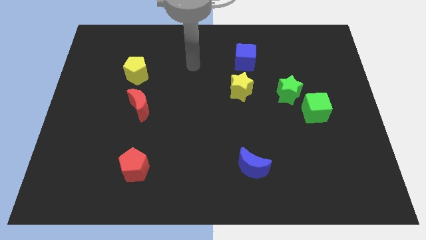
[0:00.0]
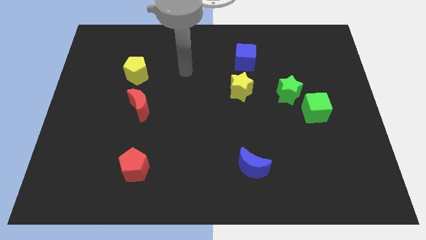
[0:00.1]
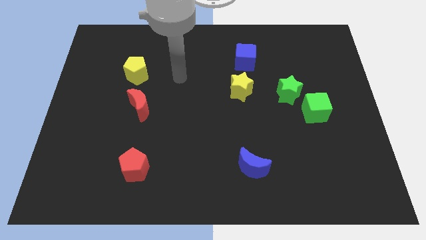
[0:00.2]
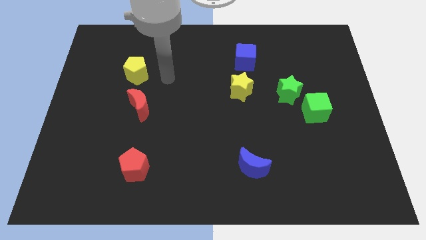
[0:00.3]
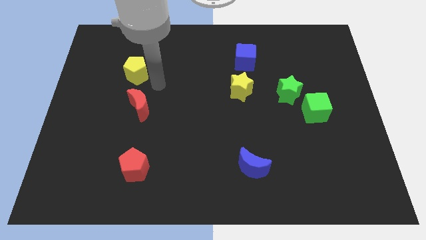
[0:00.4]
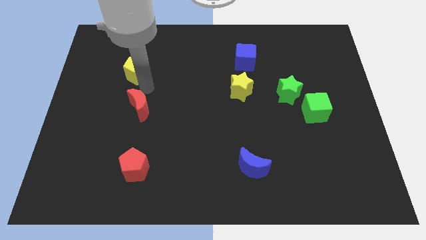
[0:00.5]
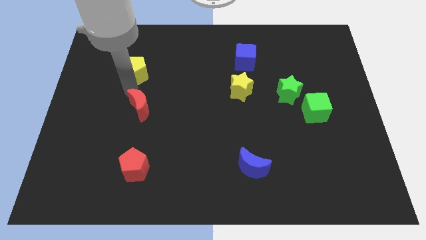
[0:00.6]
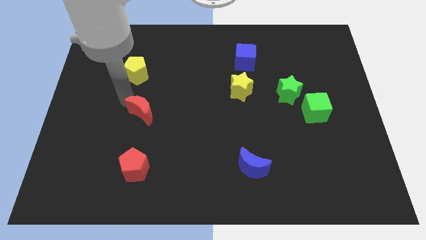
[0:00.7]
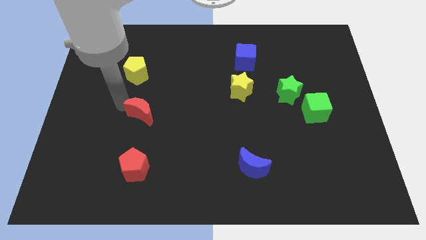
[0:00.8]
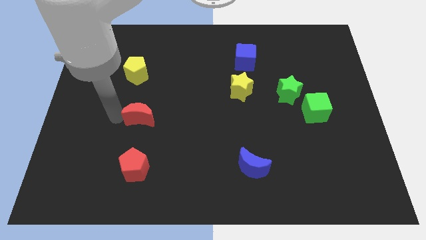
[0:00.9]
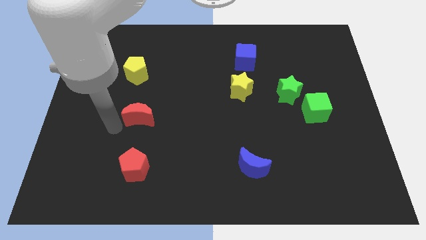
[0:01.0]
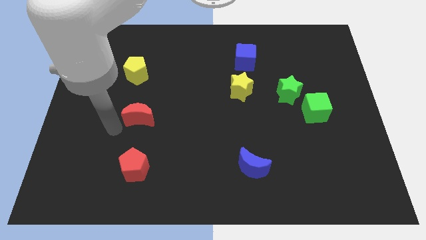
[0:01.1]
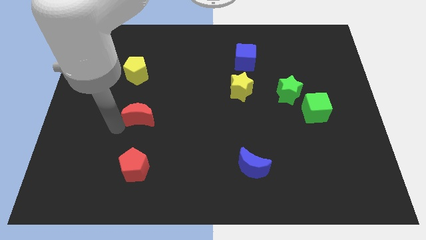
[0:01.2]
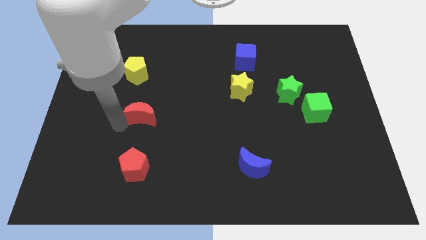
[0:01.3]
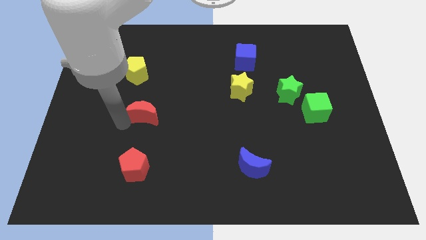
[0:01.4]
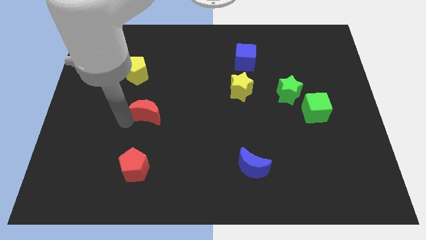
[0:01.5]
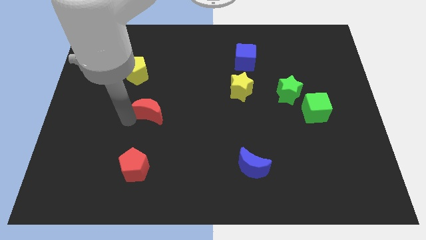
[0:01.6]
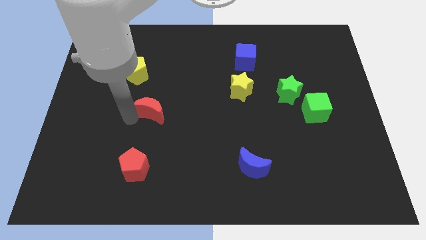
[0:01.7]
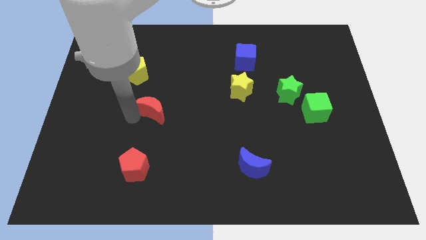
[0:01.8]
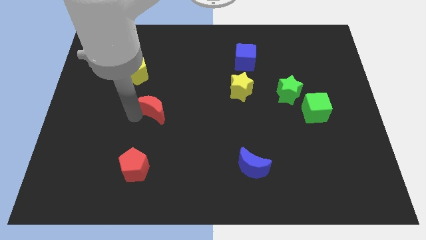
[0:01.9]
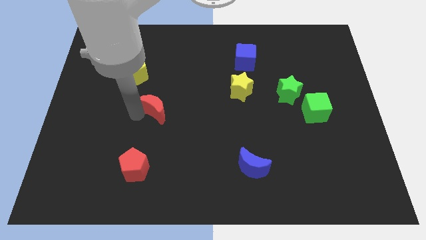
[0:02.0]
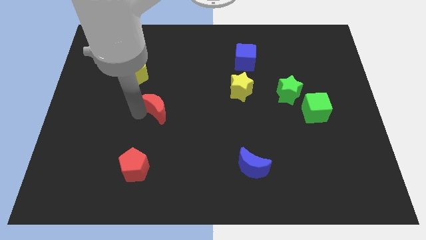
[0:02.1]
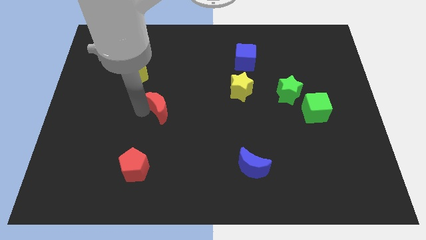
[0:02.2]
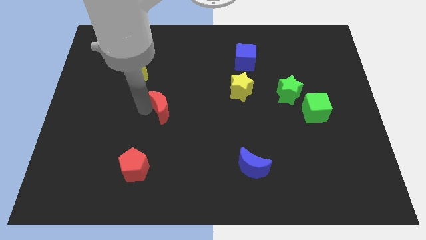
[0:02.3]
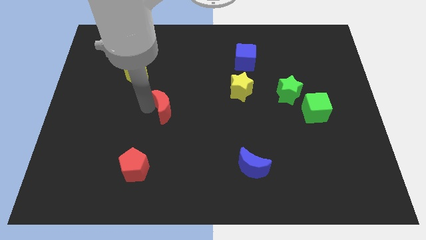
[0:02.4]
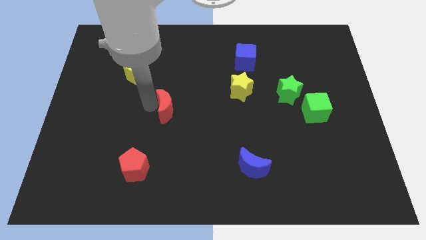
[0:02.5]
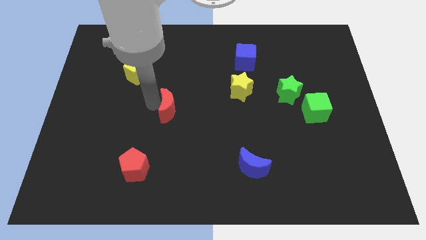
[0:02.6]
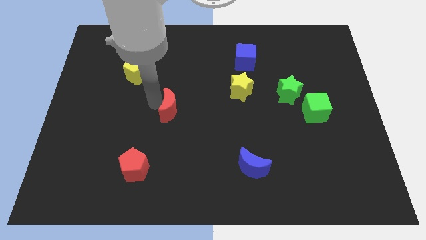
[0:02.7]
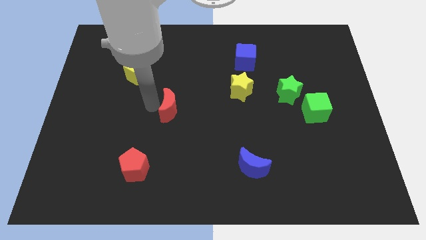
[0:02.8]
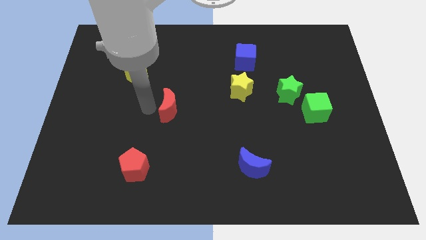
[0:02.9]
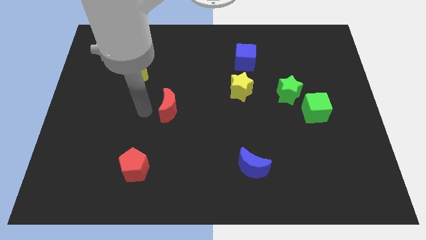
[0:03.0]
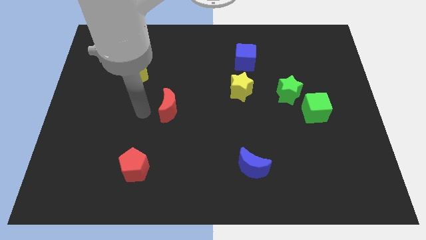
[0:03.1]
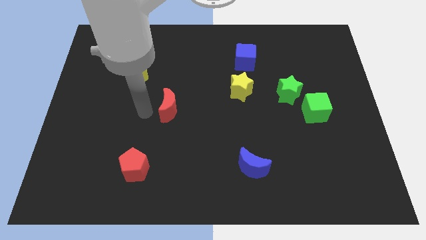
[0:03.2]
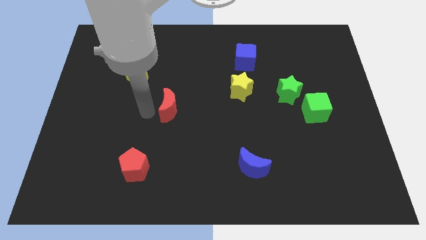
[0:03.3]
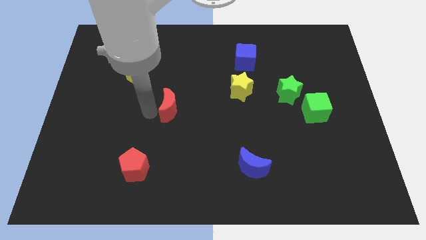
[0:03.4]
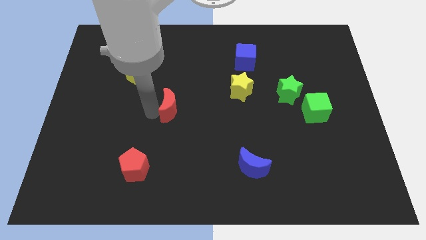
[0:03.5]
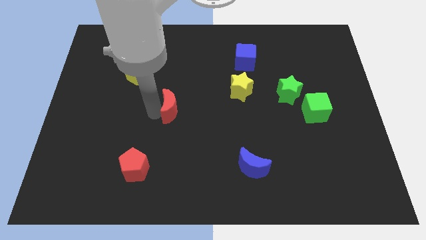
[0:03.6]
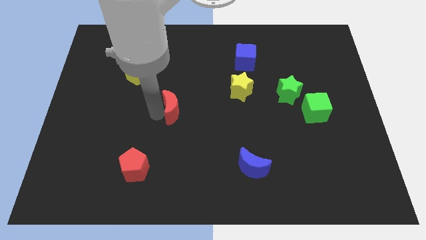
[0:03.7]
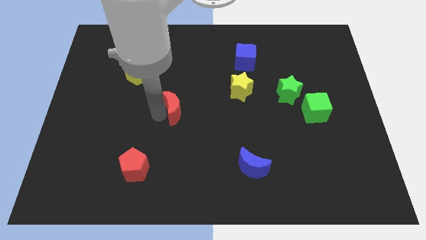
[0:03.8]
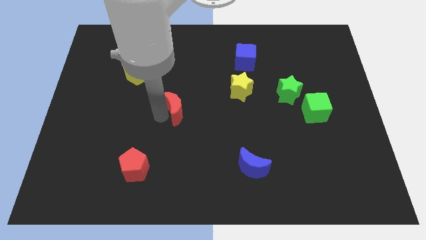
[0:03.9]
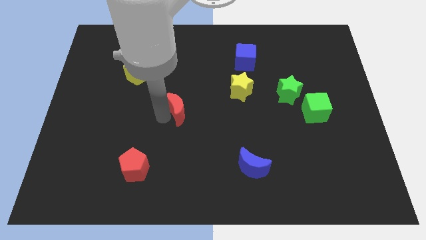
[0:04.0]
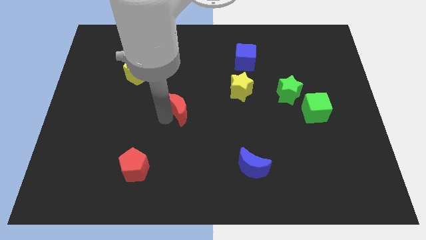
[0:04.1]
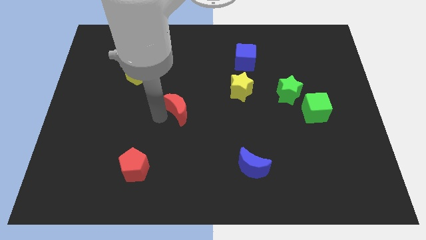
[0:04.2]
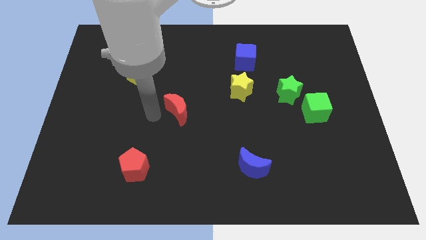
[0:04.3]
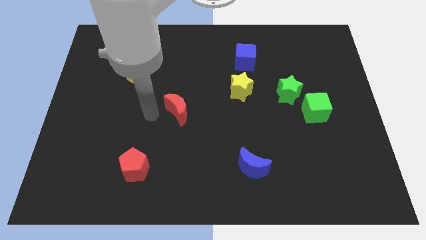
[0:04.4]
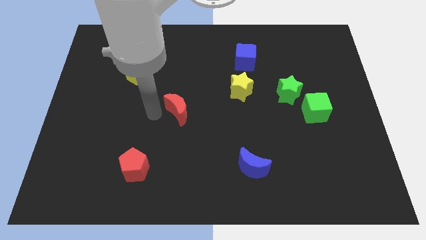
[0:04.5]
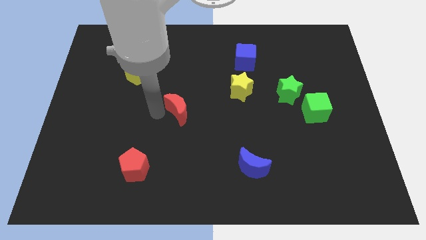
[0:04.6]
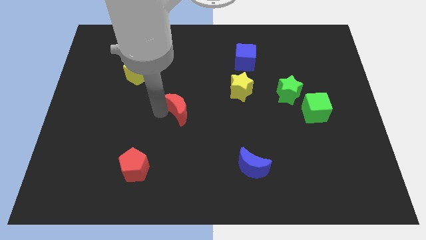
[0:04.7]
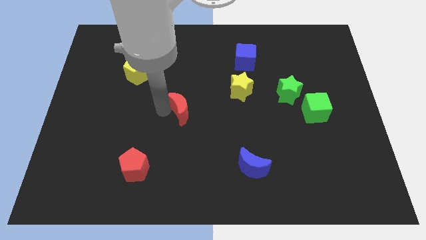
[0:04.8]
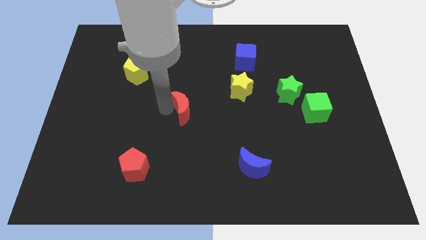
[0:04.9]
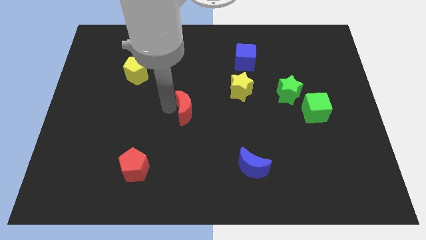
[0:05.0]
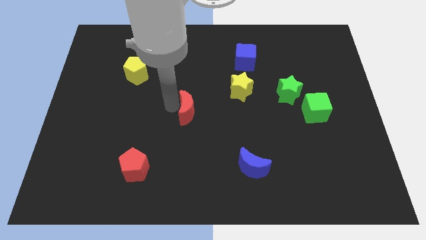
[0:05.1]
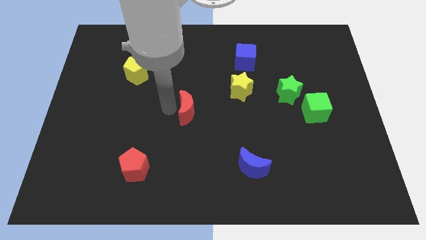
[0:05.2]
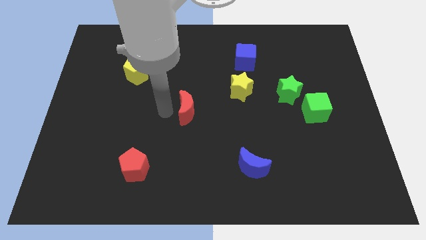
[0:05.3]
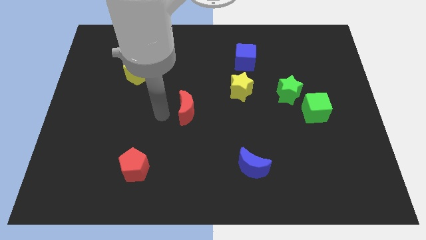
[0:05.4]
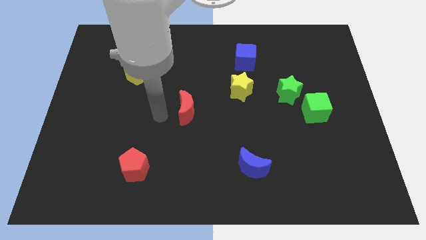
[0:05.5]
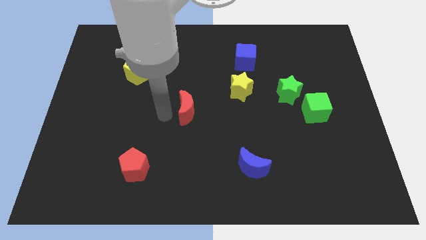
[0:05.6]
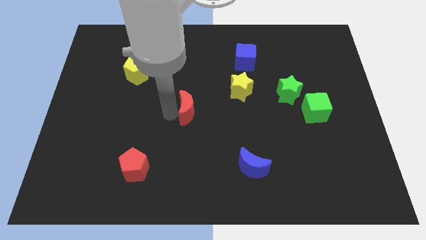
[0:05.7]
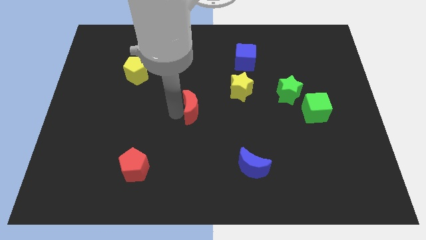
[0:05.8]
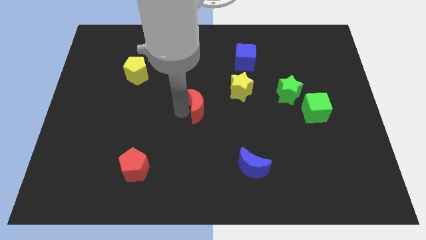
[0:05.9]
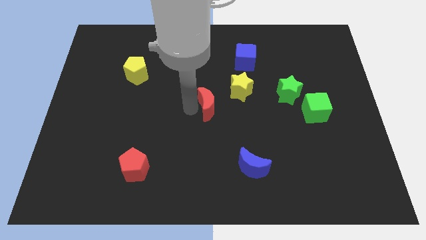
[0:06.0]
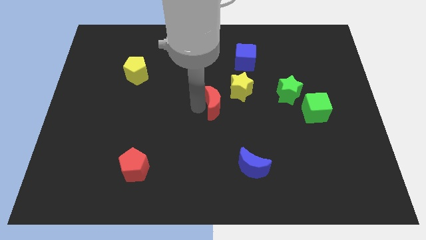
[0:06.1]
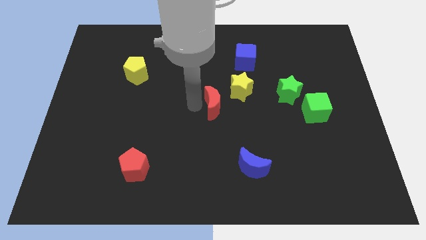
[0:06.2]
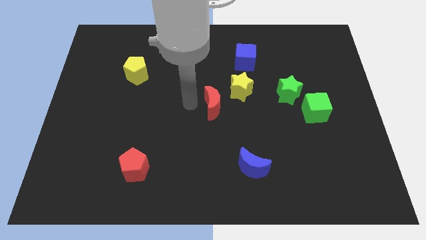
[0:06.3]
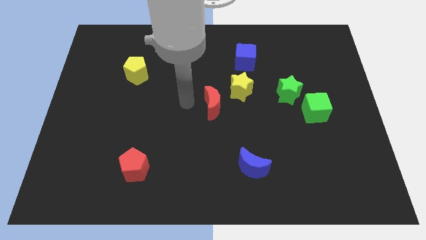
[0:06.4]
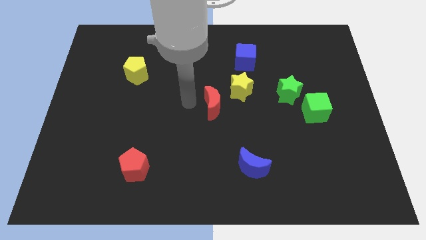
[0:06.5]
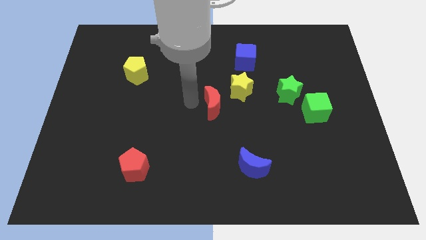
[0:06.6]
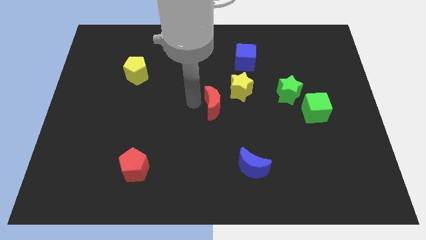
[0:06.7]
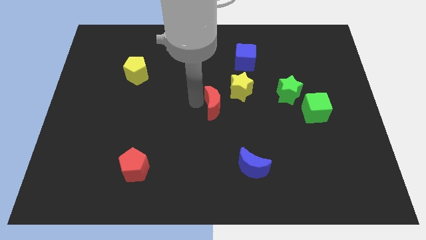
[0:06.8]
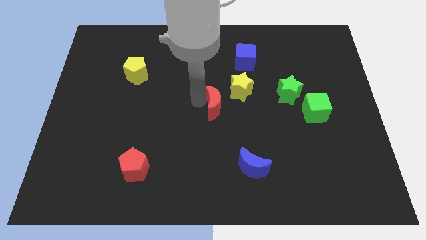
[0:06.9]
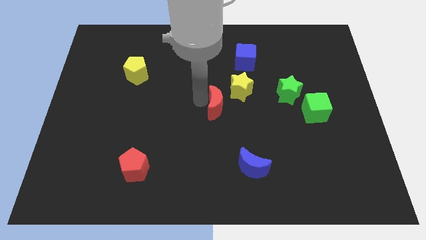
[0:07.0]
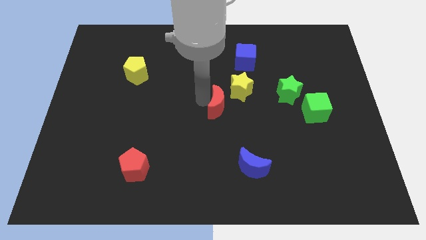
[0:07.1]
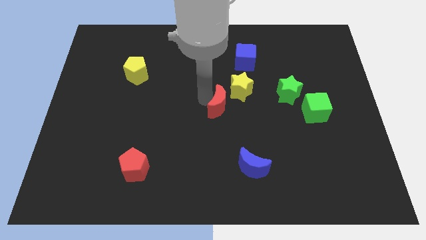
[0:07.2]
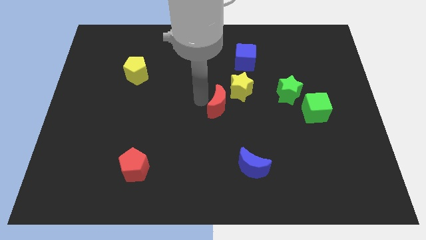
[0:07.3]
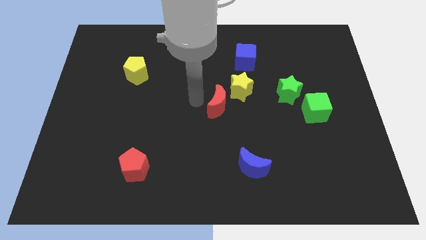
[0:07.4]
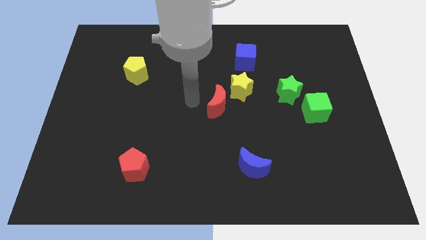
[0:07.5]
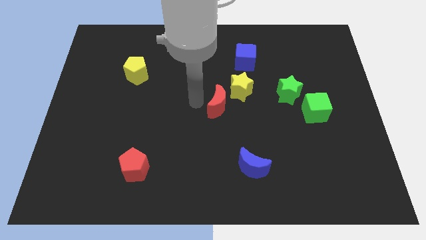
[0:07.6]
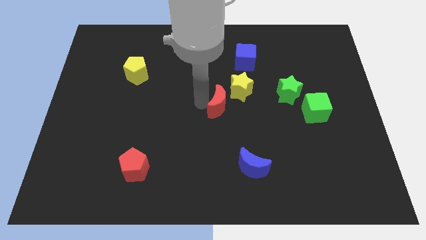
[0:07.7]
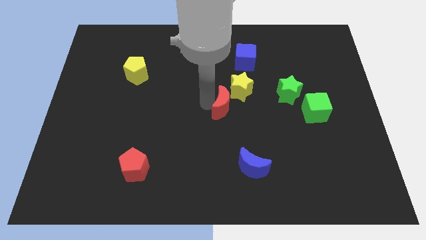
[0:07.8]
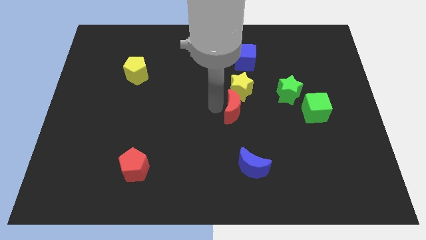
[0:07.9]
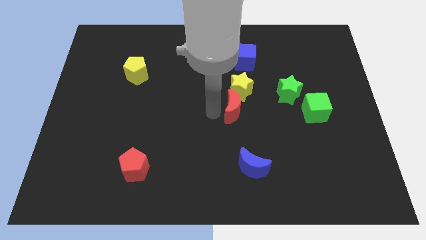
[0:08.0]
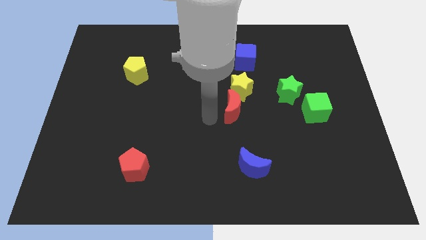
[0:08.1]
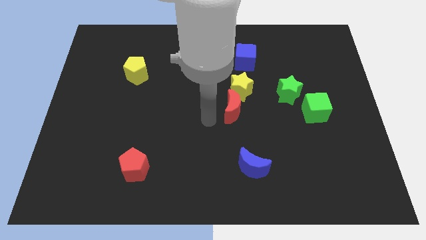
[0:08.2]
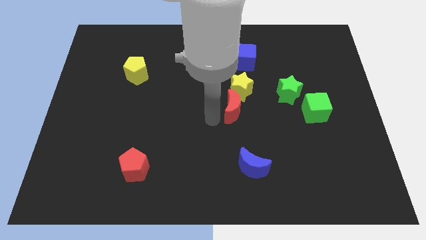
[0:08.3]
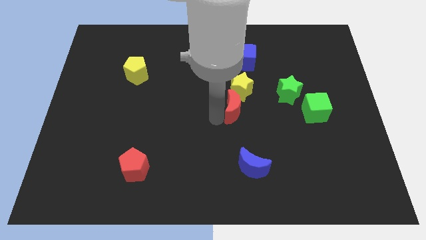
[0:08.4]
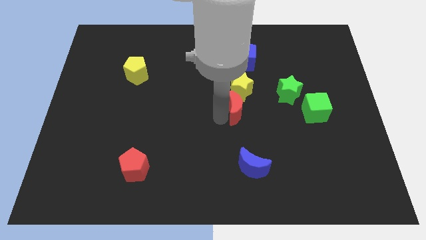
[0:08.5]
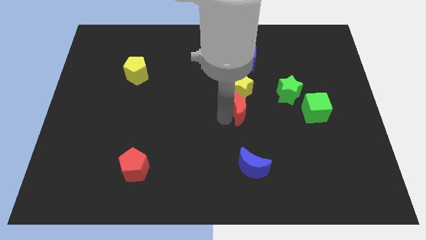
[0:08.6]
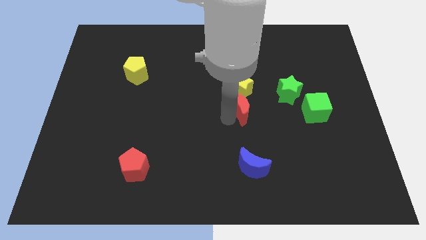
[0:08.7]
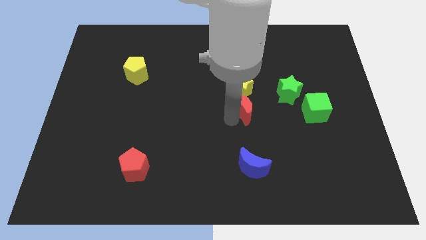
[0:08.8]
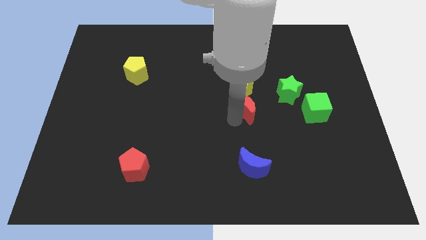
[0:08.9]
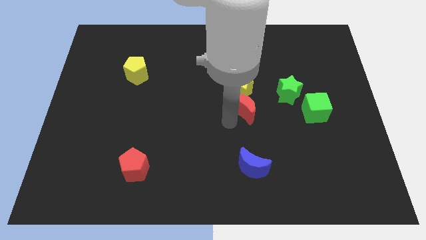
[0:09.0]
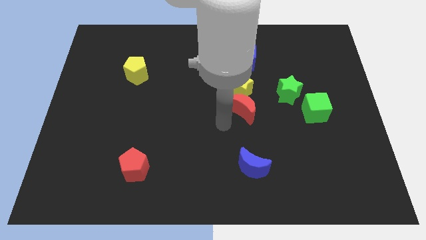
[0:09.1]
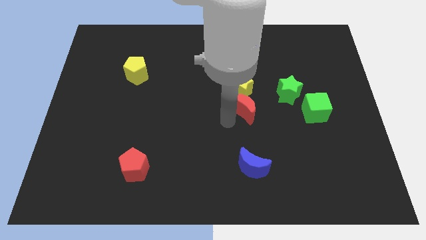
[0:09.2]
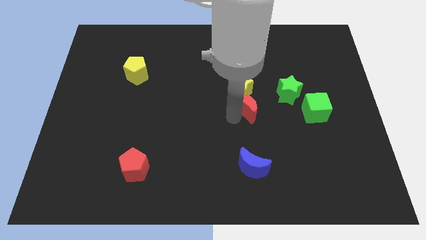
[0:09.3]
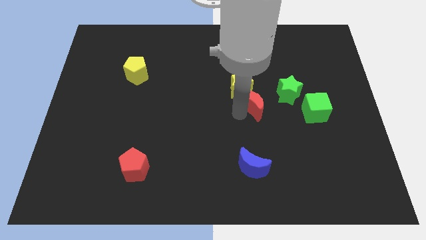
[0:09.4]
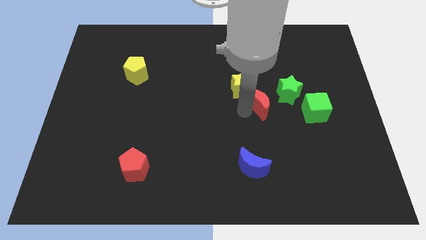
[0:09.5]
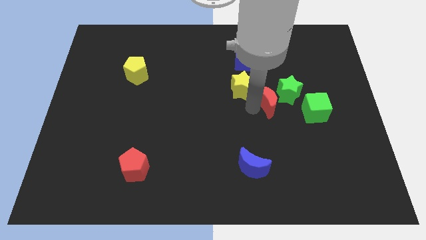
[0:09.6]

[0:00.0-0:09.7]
push the red moon towards the green star
